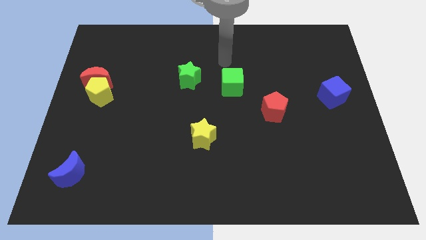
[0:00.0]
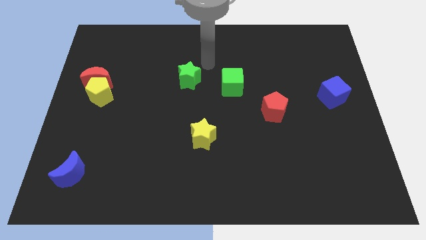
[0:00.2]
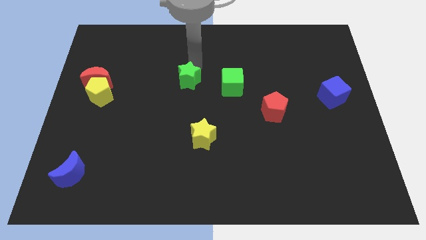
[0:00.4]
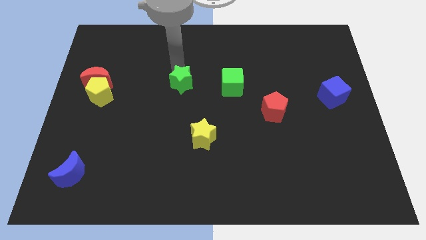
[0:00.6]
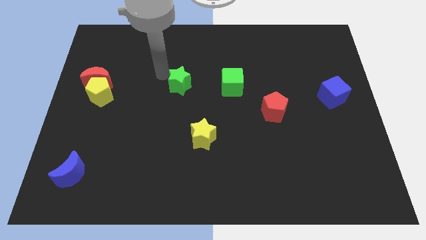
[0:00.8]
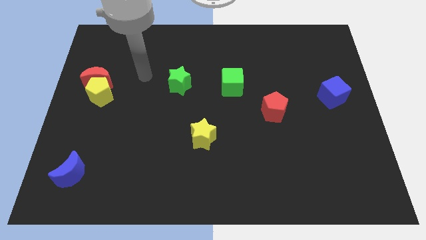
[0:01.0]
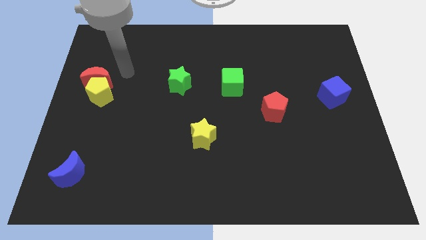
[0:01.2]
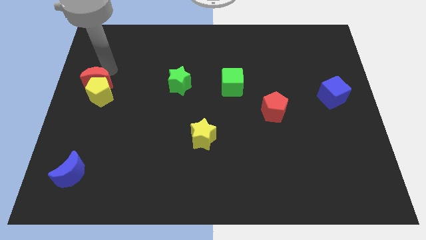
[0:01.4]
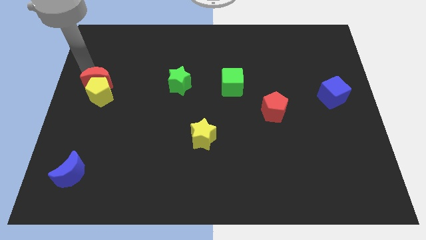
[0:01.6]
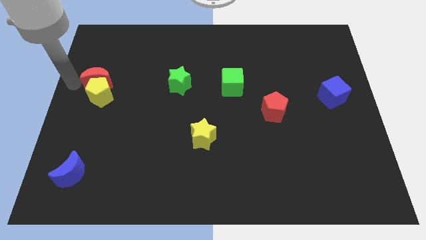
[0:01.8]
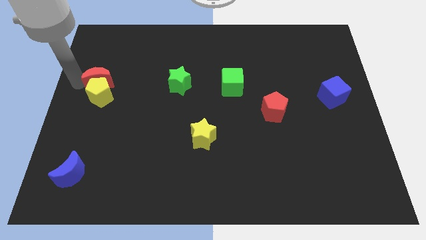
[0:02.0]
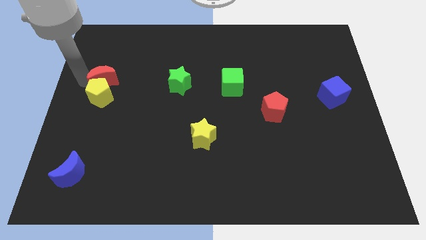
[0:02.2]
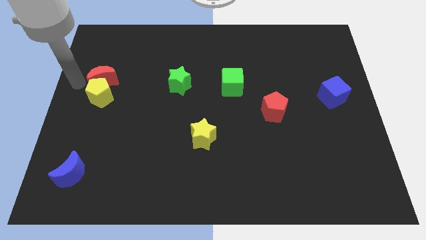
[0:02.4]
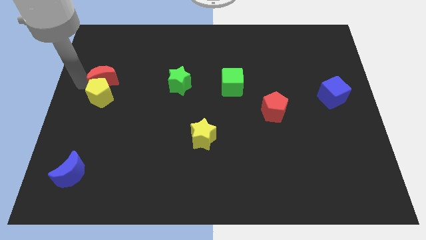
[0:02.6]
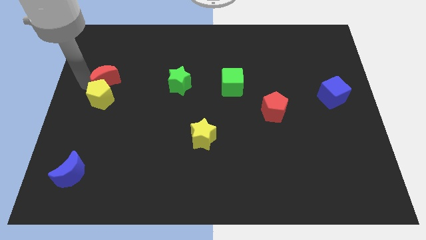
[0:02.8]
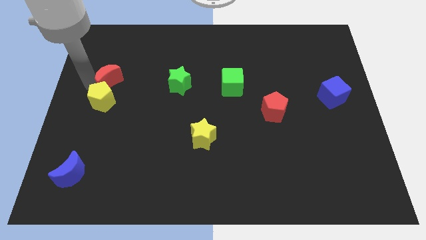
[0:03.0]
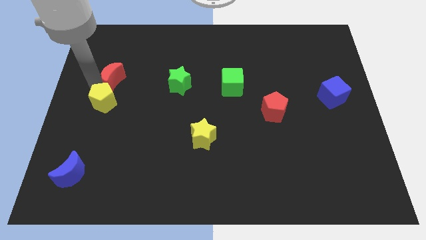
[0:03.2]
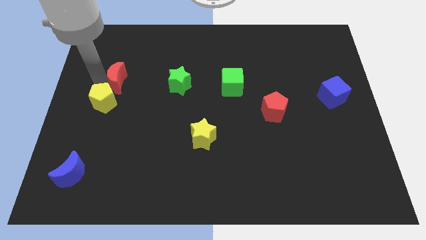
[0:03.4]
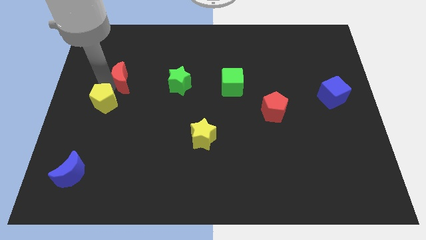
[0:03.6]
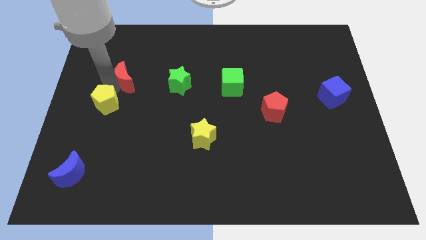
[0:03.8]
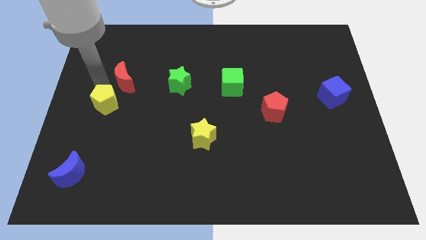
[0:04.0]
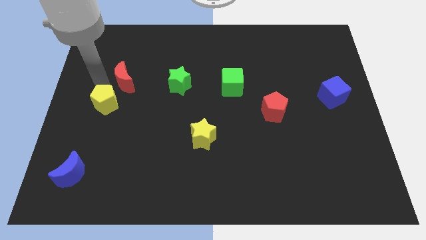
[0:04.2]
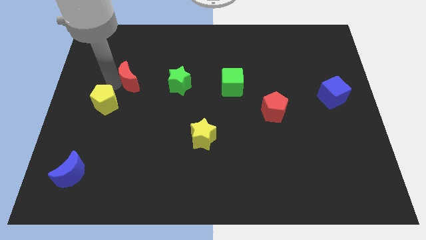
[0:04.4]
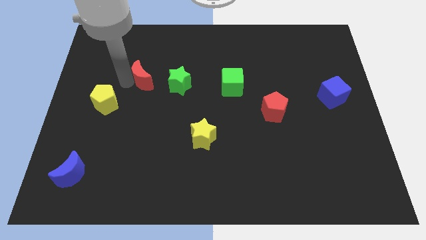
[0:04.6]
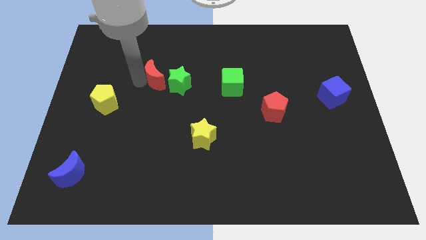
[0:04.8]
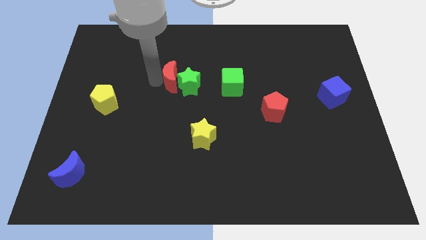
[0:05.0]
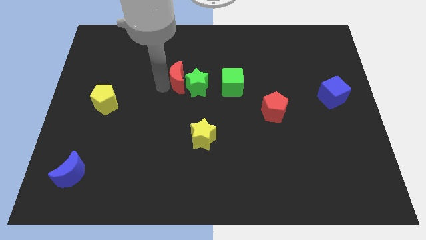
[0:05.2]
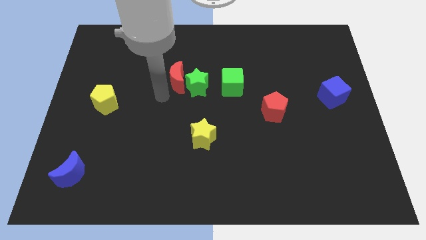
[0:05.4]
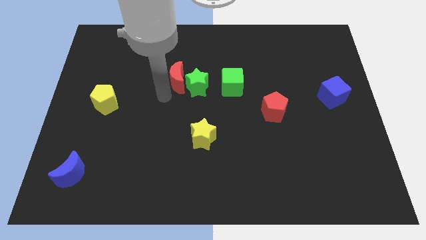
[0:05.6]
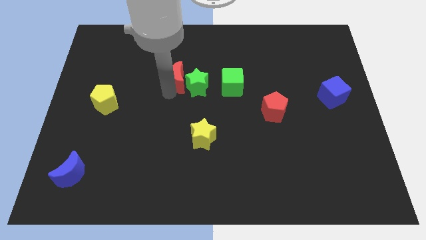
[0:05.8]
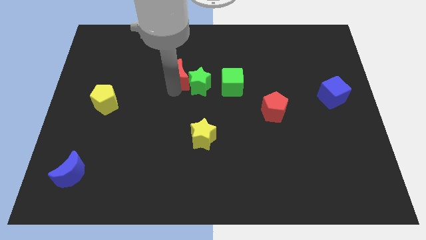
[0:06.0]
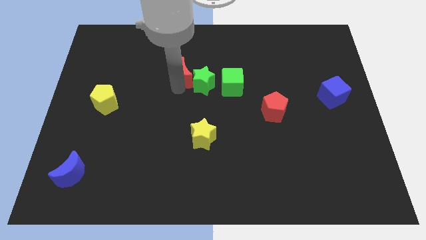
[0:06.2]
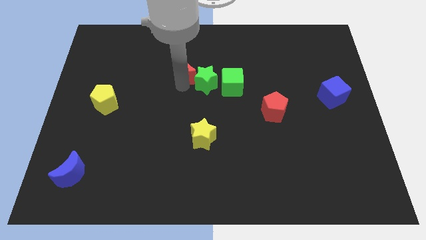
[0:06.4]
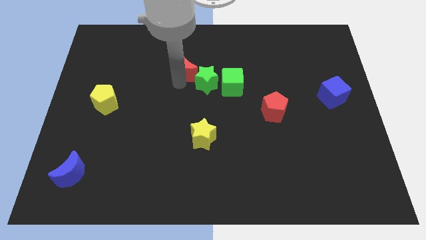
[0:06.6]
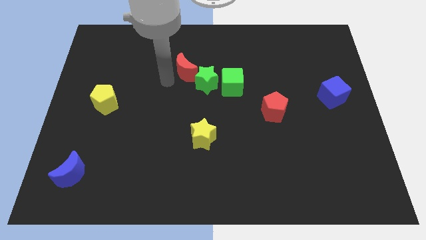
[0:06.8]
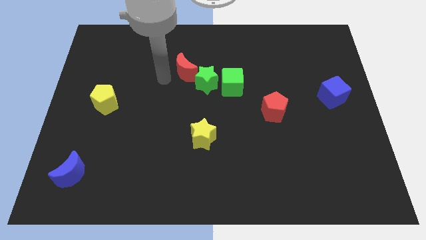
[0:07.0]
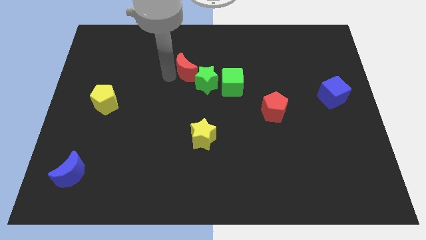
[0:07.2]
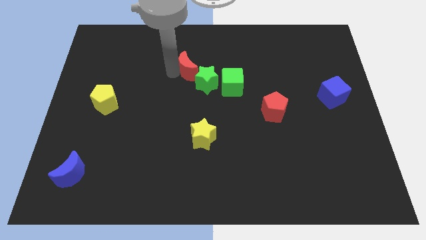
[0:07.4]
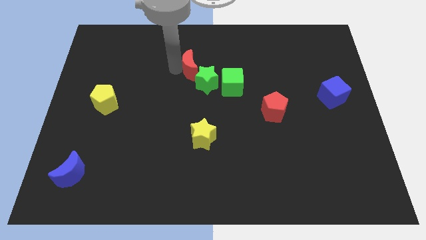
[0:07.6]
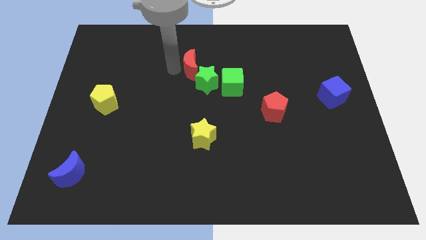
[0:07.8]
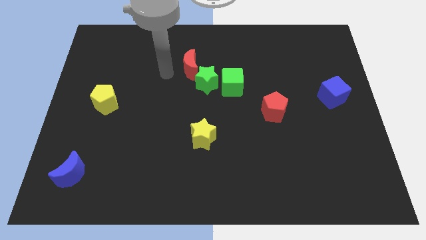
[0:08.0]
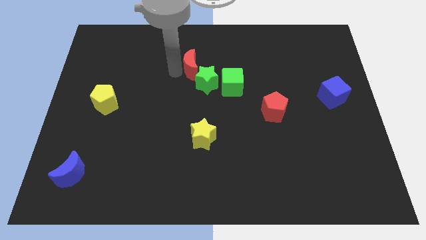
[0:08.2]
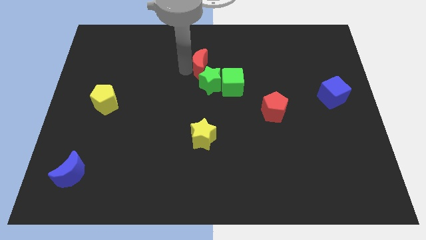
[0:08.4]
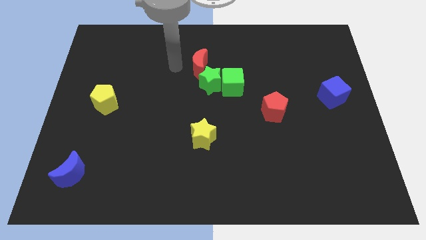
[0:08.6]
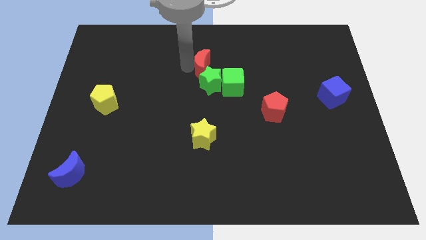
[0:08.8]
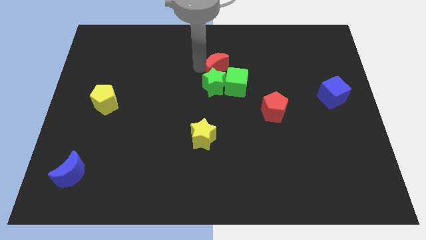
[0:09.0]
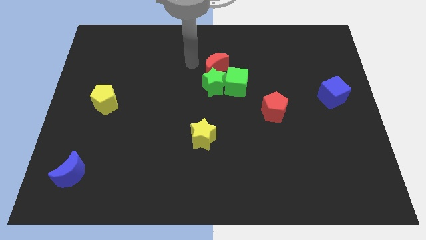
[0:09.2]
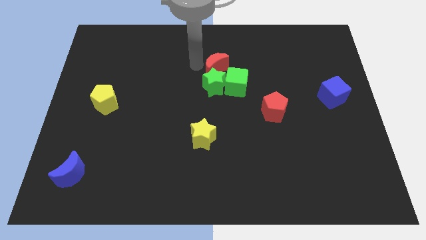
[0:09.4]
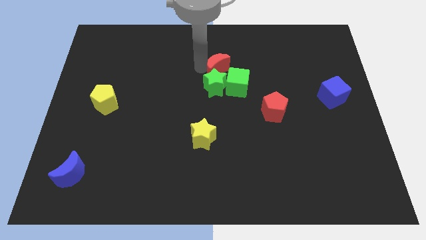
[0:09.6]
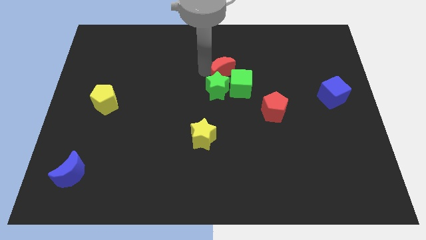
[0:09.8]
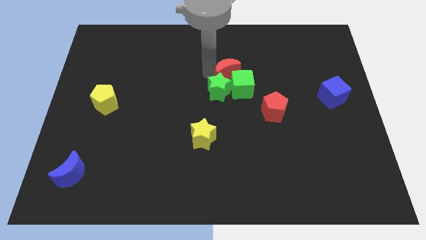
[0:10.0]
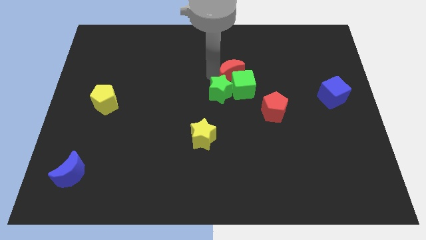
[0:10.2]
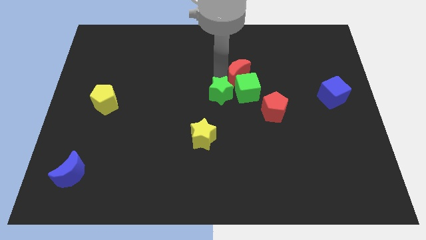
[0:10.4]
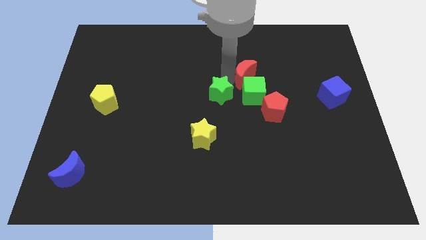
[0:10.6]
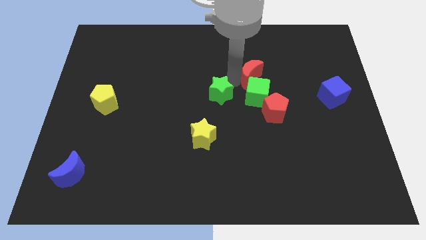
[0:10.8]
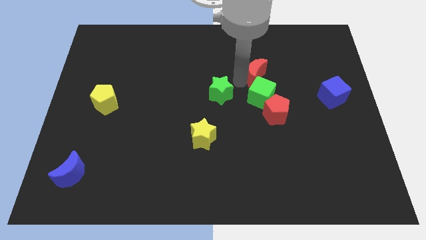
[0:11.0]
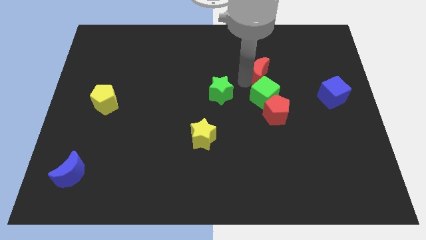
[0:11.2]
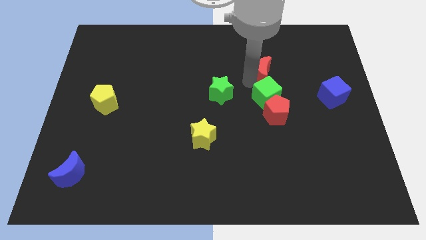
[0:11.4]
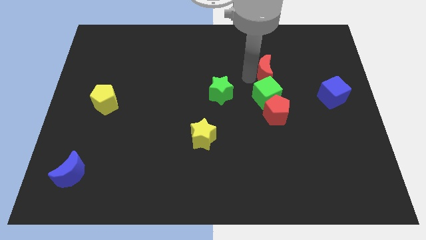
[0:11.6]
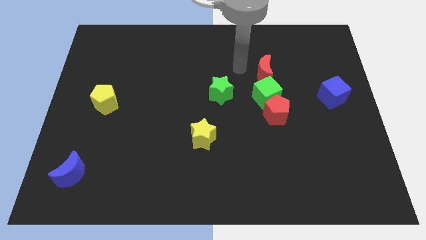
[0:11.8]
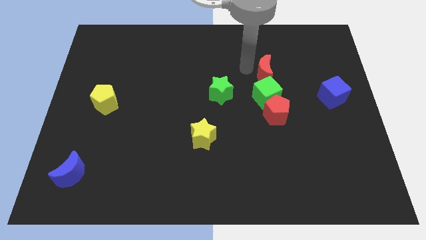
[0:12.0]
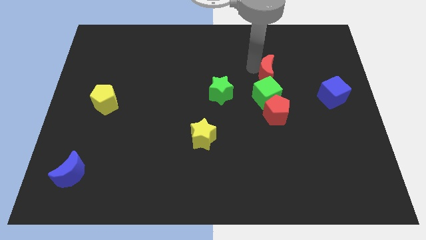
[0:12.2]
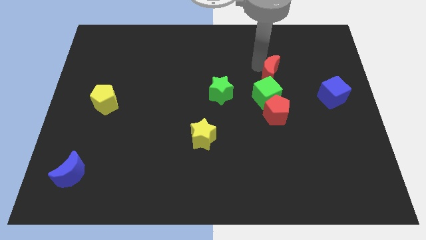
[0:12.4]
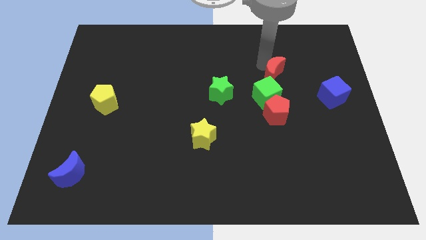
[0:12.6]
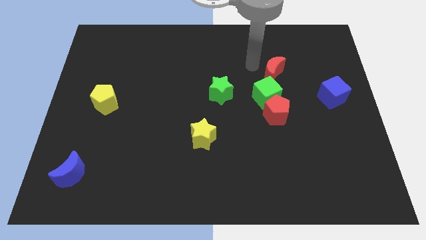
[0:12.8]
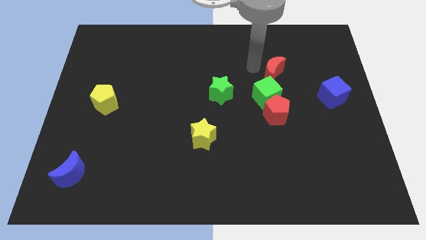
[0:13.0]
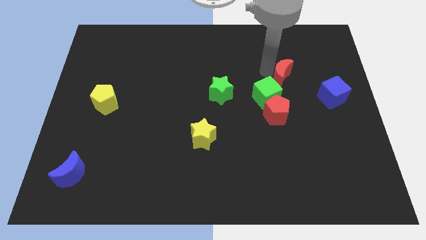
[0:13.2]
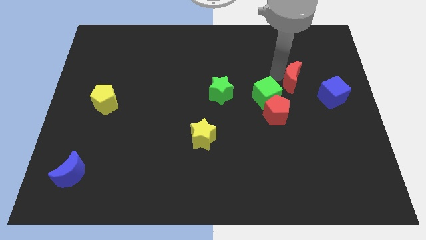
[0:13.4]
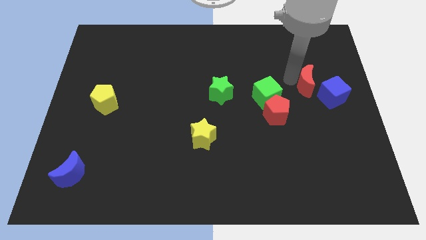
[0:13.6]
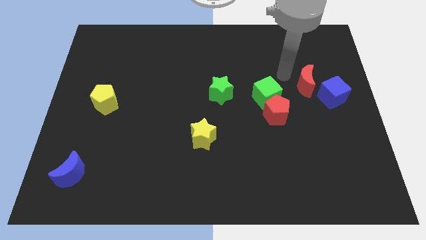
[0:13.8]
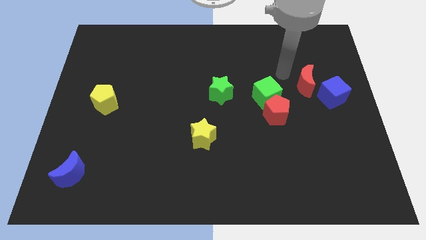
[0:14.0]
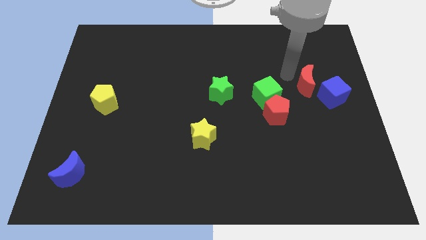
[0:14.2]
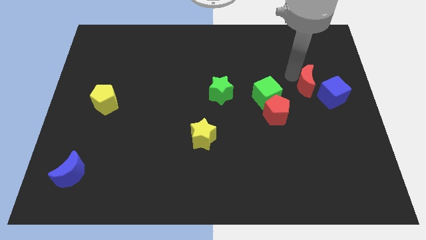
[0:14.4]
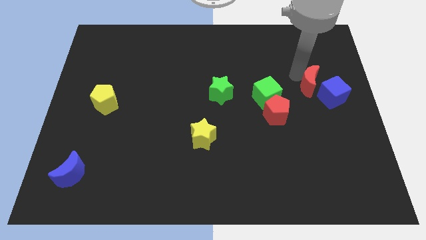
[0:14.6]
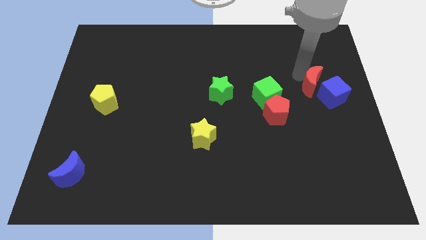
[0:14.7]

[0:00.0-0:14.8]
slide the red moon to the blue cube
